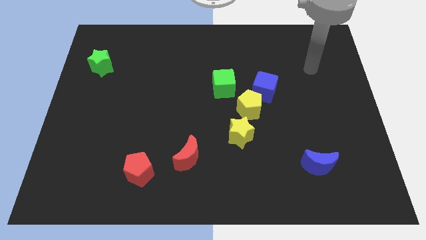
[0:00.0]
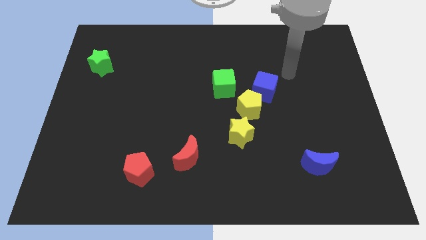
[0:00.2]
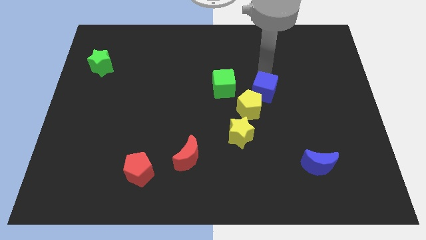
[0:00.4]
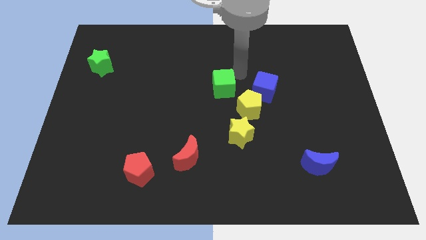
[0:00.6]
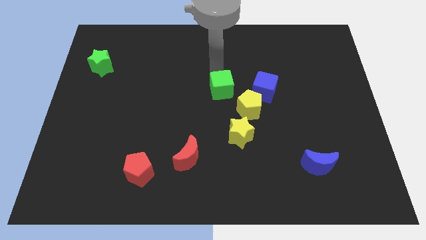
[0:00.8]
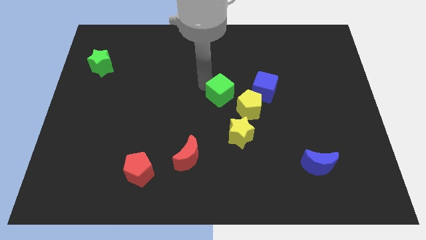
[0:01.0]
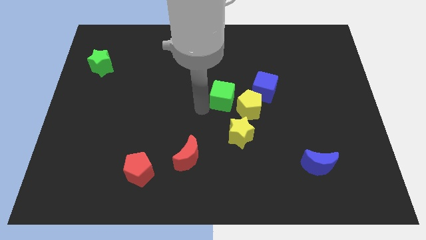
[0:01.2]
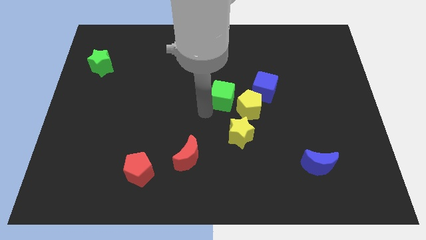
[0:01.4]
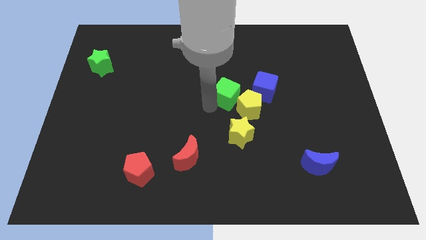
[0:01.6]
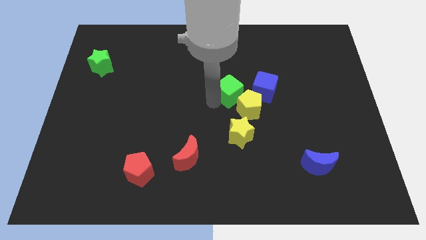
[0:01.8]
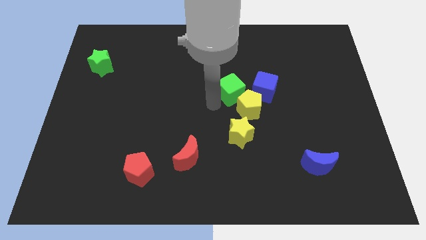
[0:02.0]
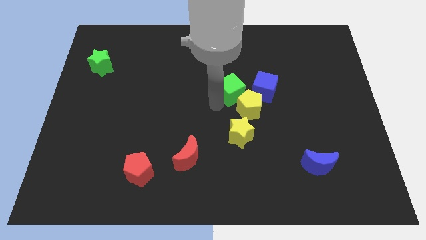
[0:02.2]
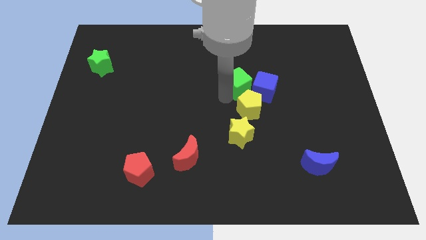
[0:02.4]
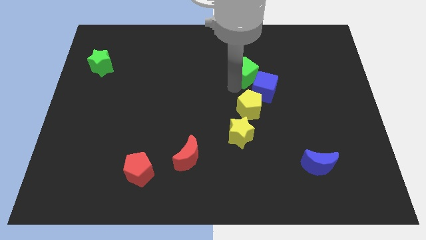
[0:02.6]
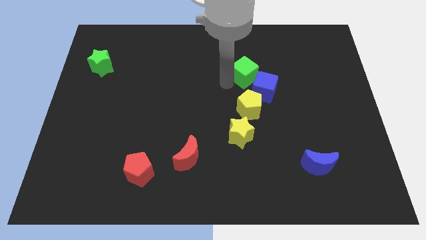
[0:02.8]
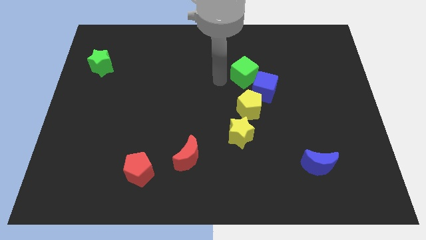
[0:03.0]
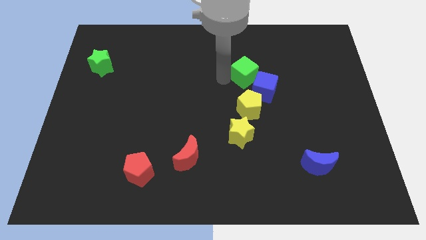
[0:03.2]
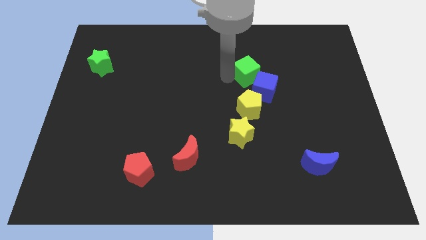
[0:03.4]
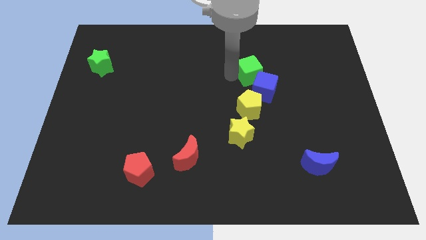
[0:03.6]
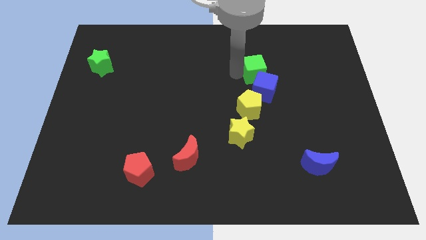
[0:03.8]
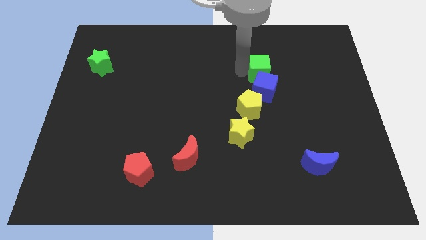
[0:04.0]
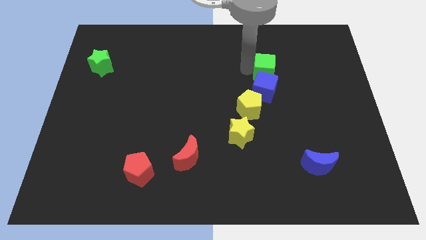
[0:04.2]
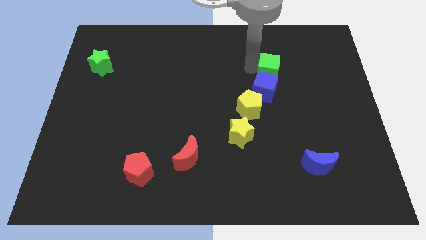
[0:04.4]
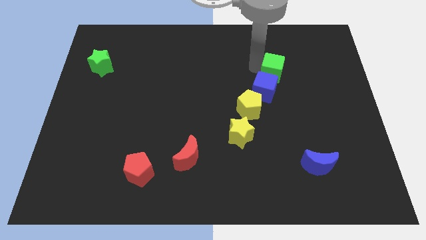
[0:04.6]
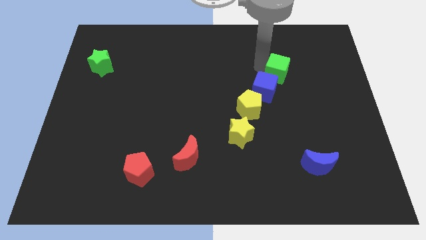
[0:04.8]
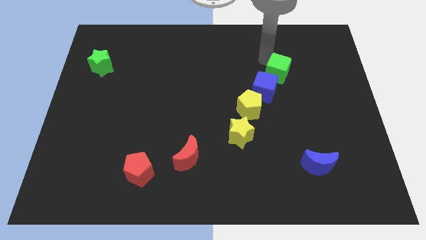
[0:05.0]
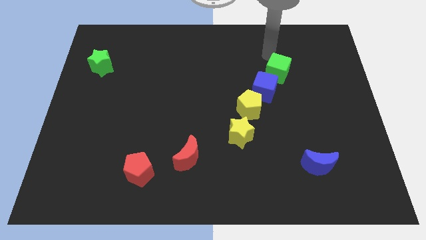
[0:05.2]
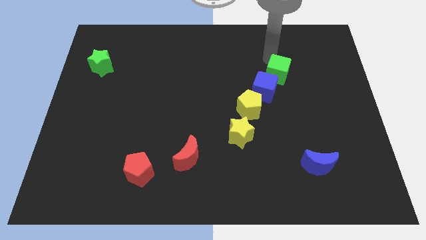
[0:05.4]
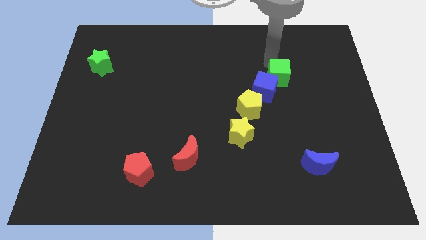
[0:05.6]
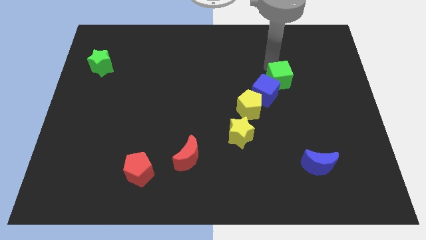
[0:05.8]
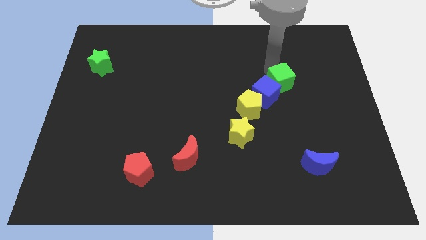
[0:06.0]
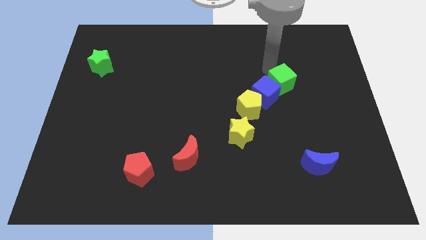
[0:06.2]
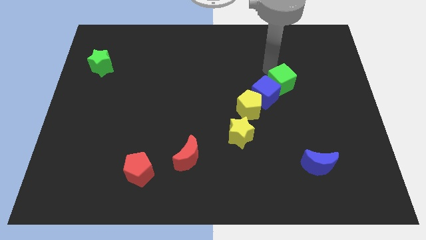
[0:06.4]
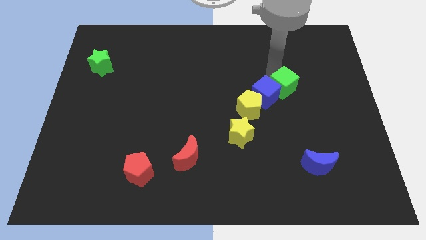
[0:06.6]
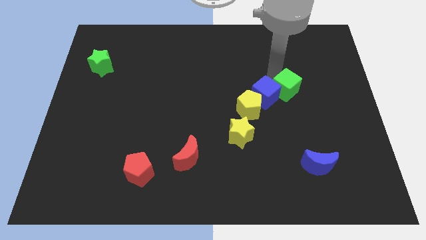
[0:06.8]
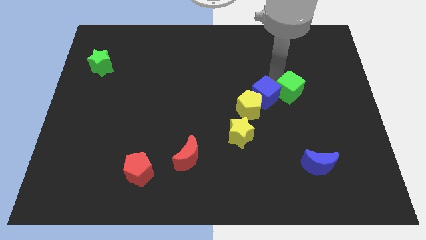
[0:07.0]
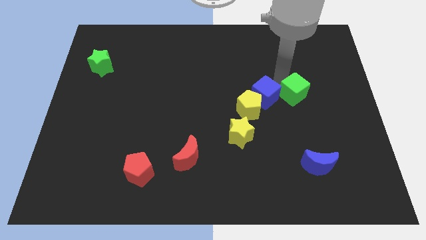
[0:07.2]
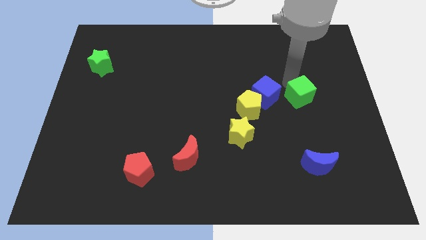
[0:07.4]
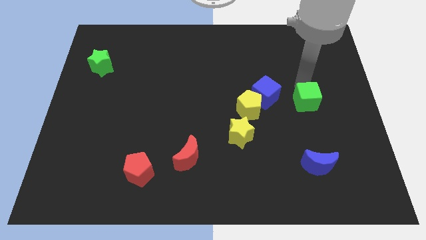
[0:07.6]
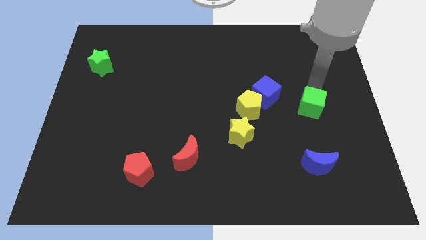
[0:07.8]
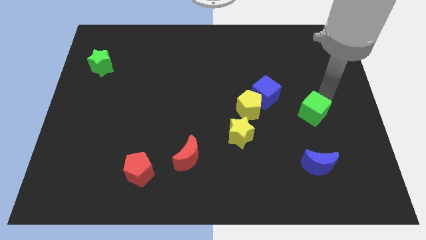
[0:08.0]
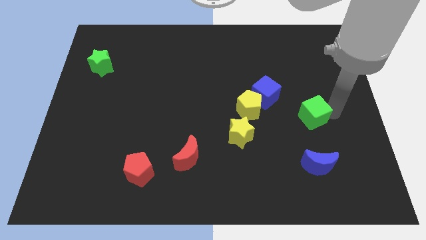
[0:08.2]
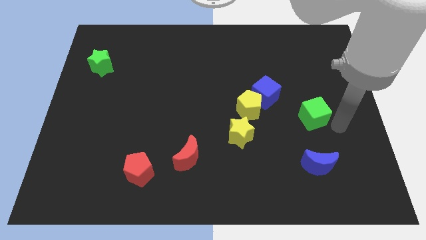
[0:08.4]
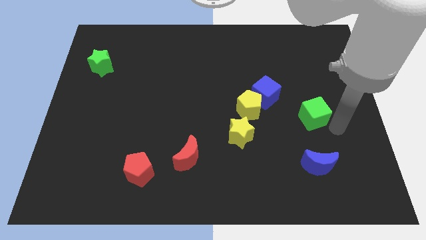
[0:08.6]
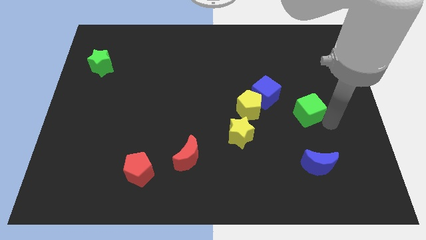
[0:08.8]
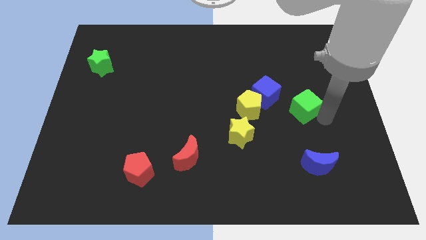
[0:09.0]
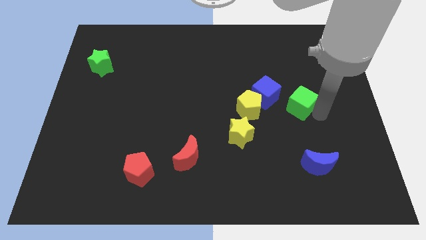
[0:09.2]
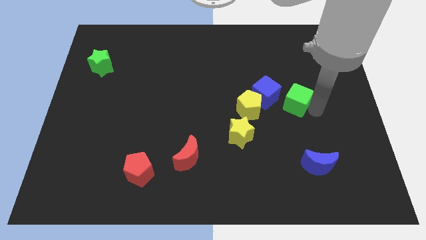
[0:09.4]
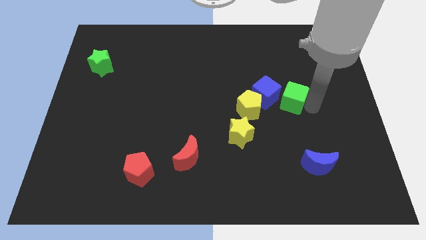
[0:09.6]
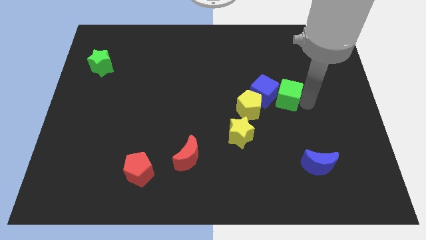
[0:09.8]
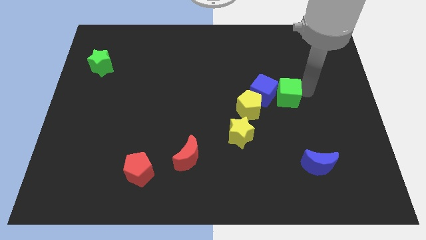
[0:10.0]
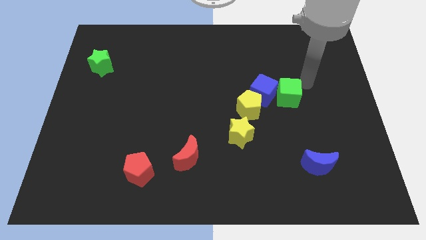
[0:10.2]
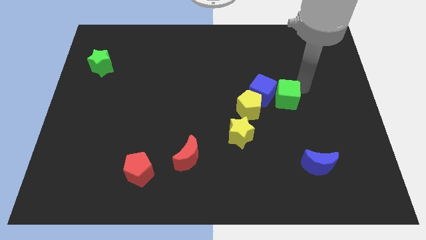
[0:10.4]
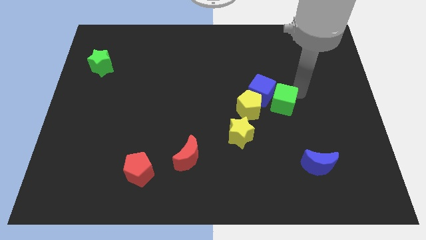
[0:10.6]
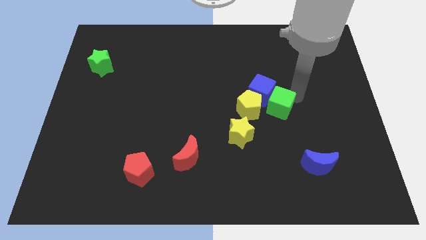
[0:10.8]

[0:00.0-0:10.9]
slide the green cube diagonally up and to the right of the yellow star
